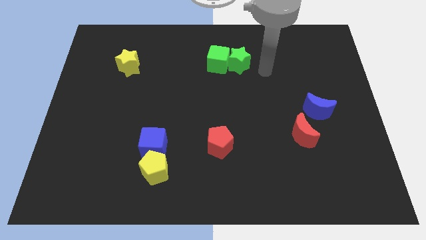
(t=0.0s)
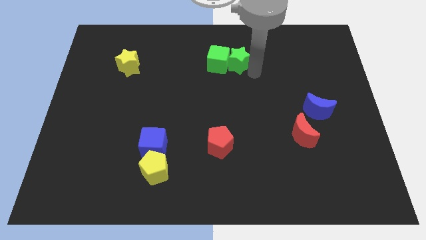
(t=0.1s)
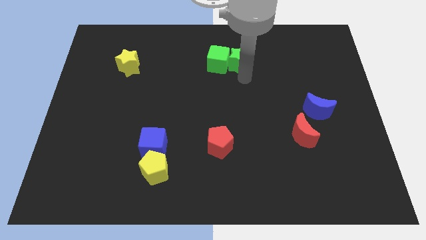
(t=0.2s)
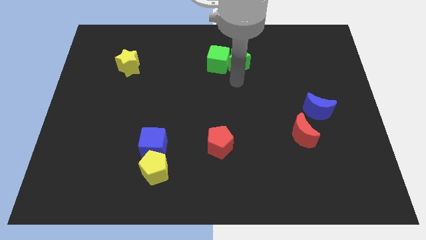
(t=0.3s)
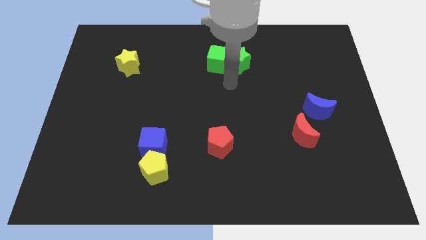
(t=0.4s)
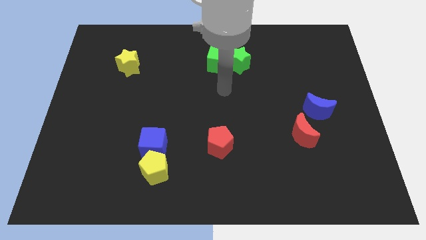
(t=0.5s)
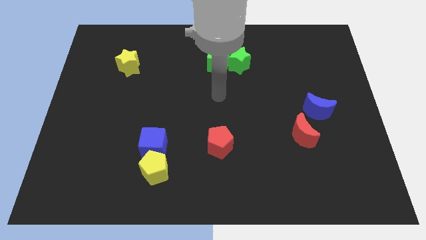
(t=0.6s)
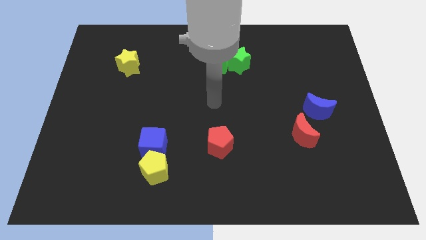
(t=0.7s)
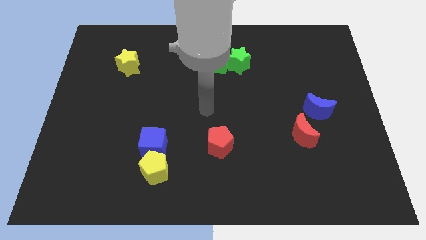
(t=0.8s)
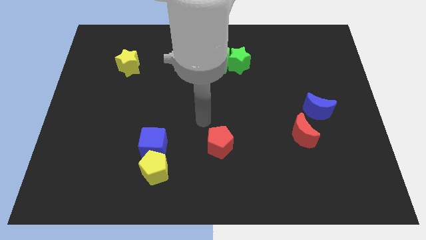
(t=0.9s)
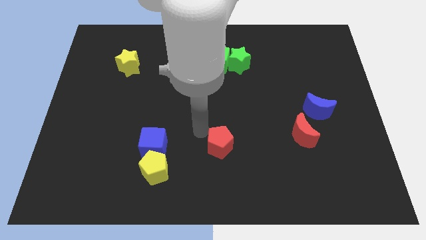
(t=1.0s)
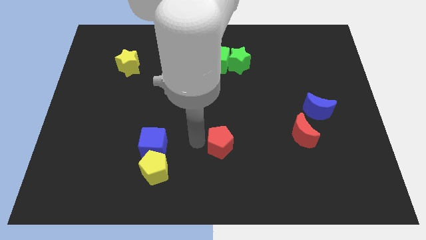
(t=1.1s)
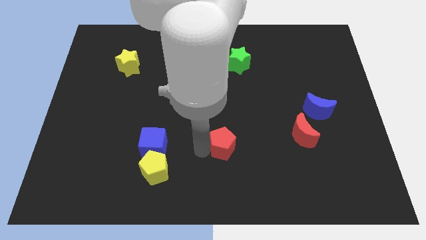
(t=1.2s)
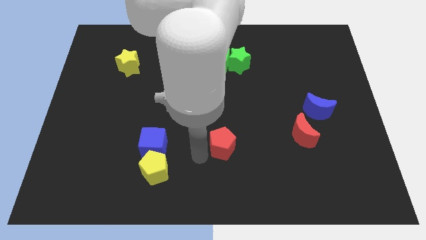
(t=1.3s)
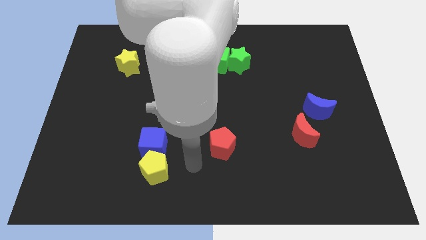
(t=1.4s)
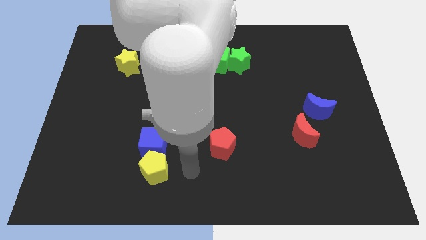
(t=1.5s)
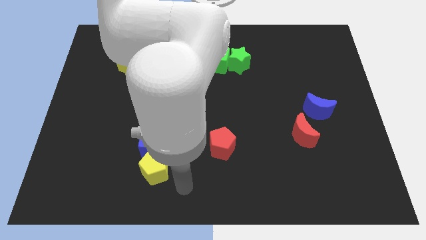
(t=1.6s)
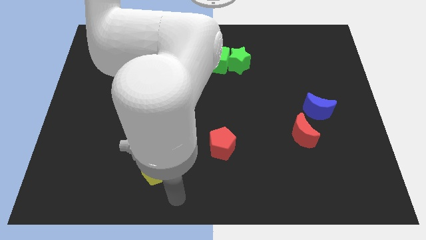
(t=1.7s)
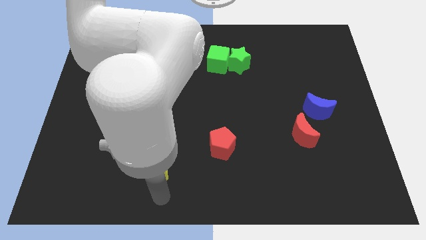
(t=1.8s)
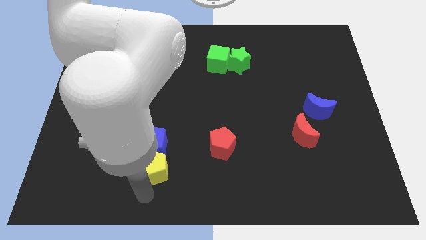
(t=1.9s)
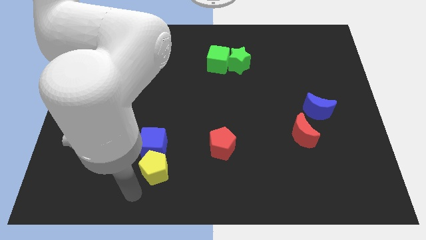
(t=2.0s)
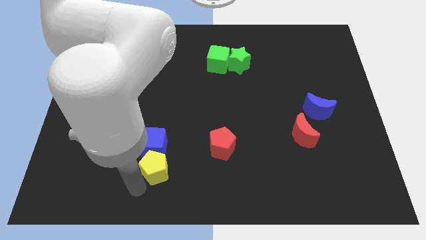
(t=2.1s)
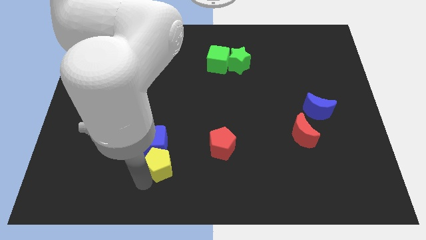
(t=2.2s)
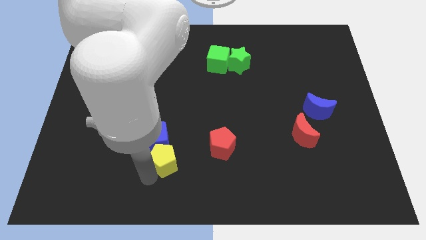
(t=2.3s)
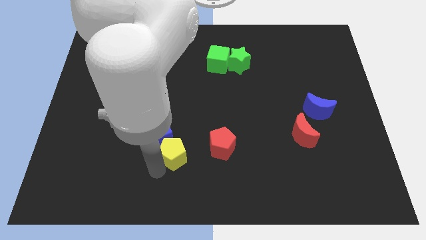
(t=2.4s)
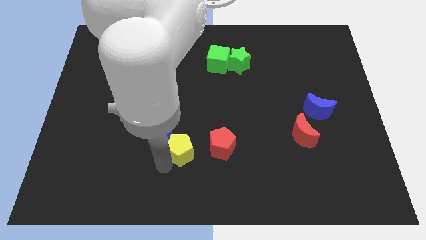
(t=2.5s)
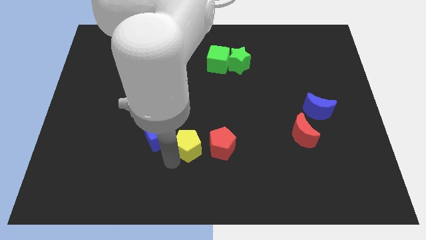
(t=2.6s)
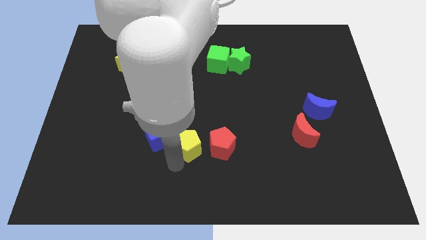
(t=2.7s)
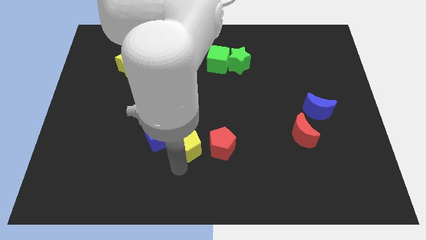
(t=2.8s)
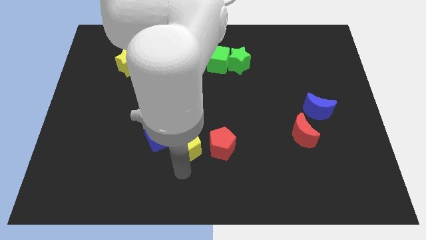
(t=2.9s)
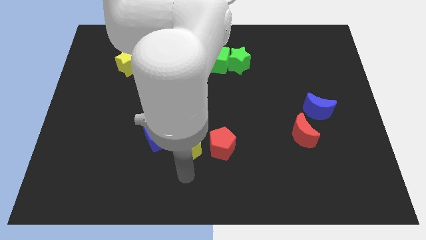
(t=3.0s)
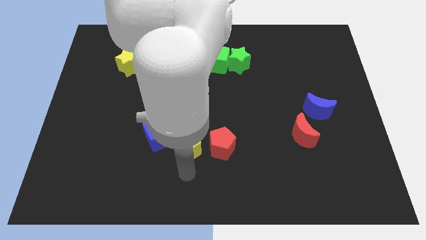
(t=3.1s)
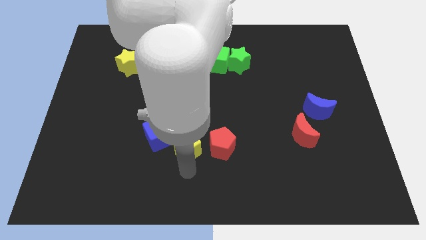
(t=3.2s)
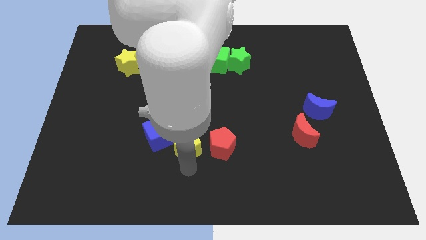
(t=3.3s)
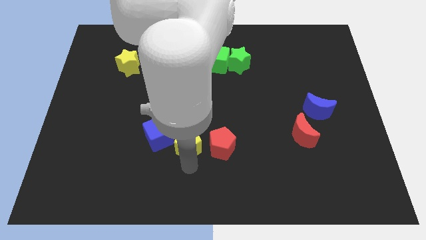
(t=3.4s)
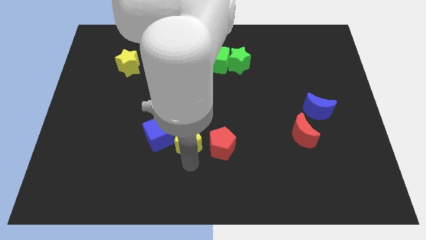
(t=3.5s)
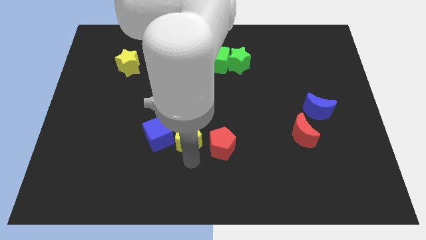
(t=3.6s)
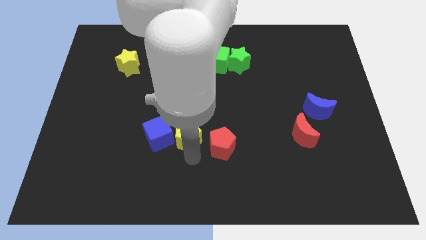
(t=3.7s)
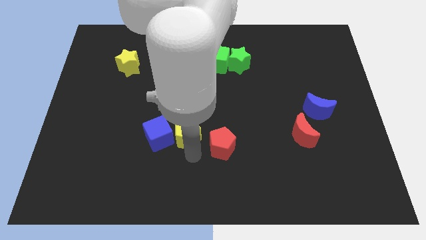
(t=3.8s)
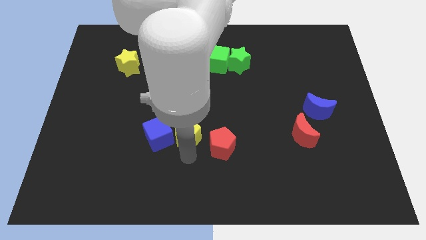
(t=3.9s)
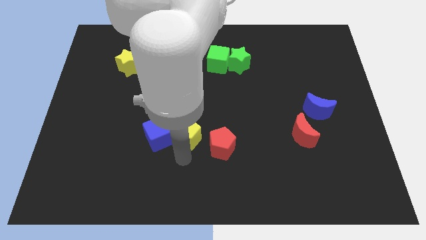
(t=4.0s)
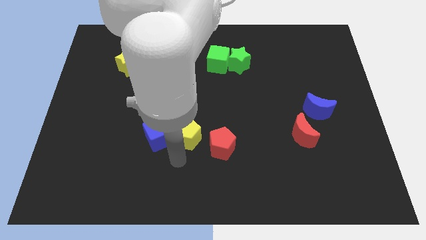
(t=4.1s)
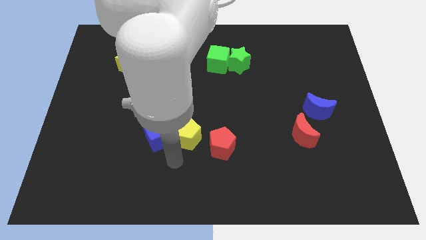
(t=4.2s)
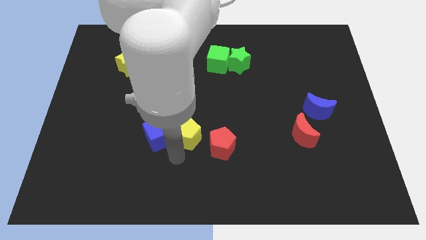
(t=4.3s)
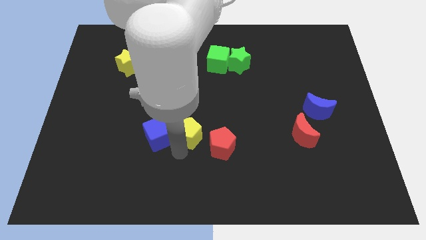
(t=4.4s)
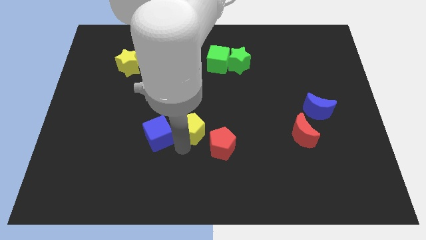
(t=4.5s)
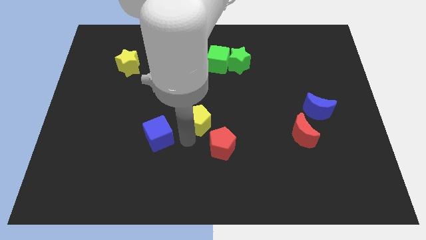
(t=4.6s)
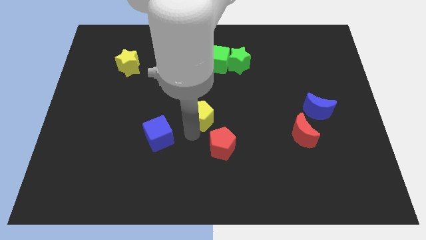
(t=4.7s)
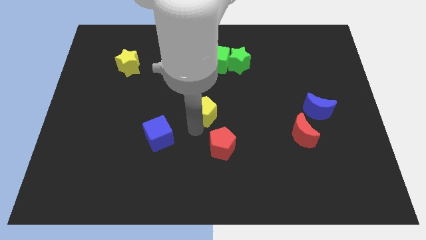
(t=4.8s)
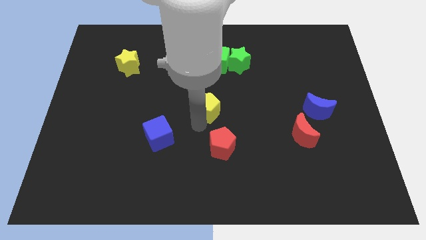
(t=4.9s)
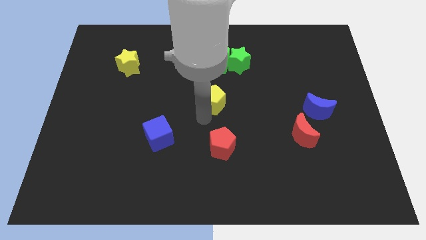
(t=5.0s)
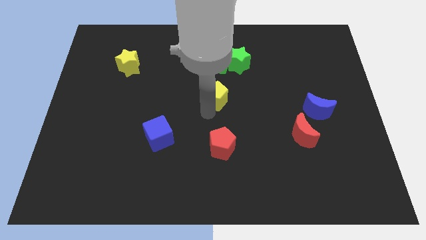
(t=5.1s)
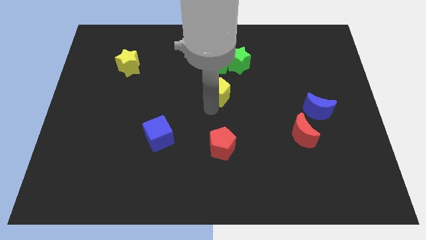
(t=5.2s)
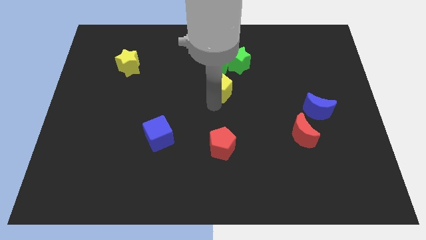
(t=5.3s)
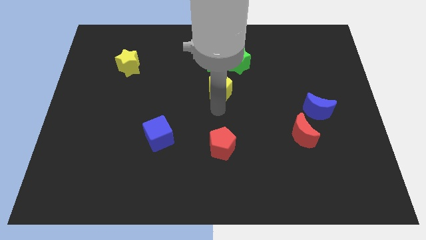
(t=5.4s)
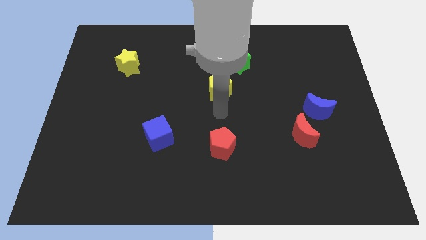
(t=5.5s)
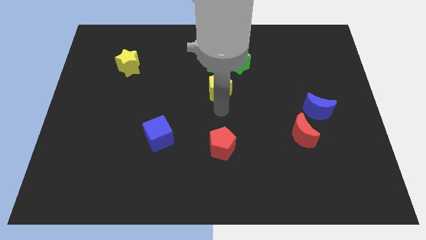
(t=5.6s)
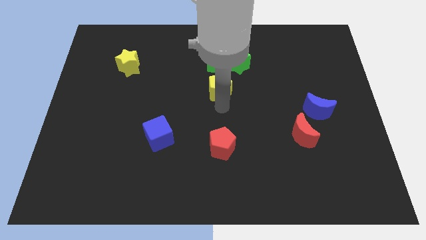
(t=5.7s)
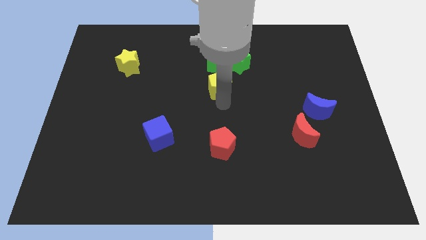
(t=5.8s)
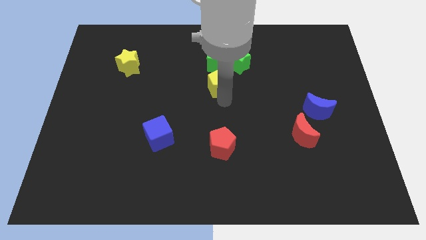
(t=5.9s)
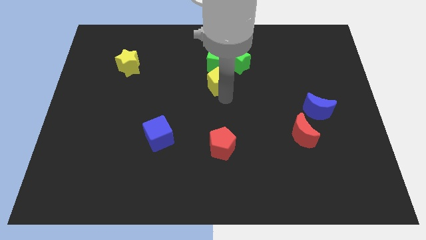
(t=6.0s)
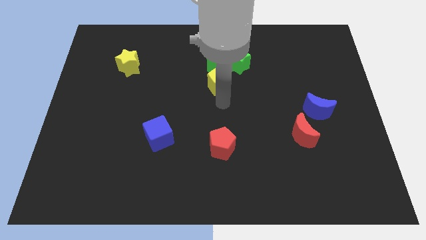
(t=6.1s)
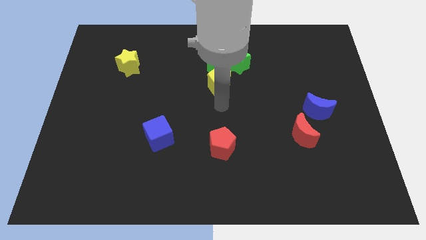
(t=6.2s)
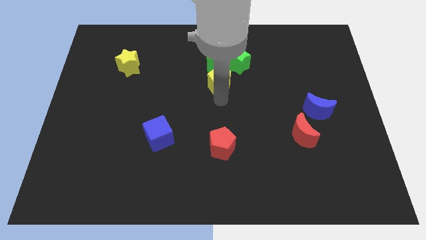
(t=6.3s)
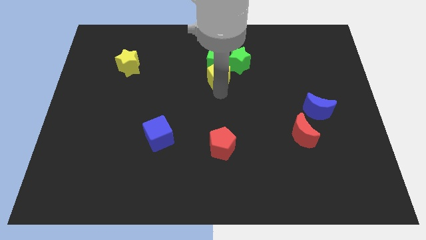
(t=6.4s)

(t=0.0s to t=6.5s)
slide the yellow pentagon towards the green cube

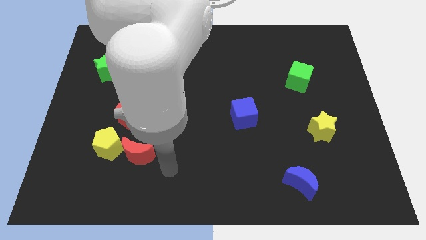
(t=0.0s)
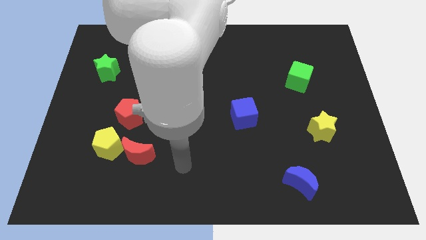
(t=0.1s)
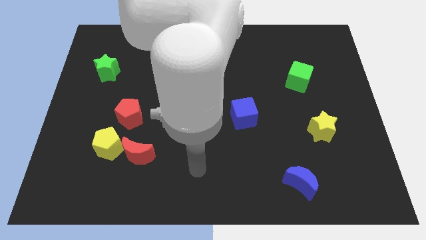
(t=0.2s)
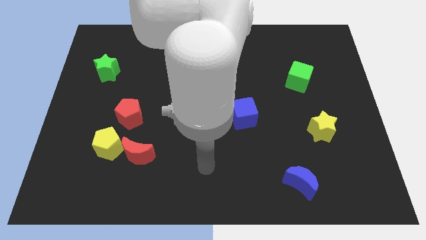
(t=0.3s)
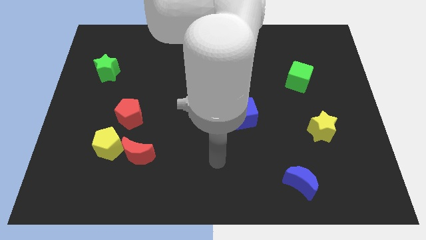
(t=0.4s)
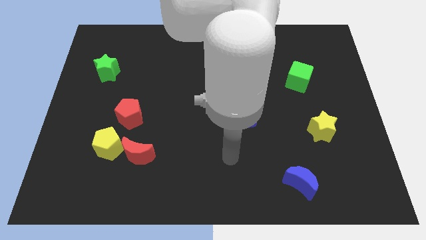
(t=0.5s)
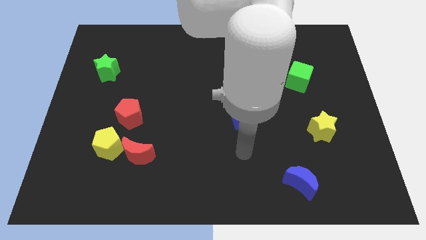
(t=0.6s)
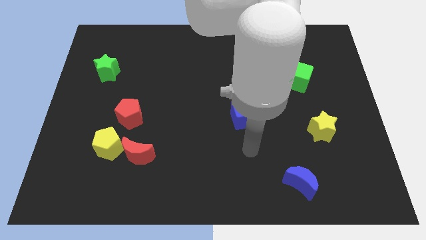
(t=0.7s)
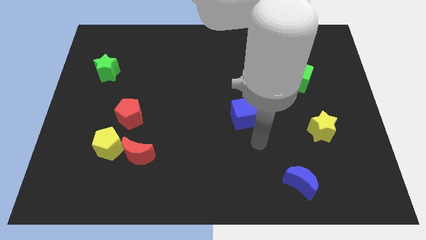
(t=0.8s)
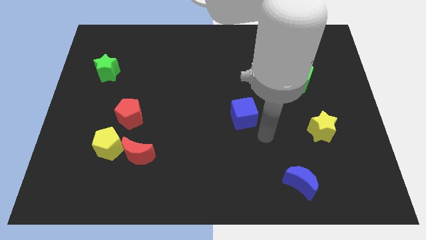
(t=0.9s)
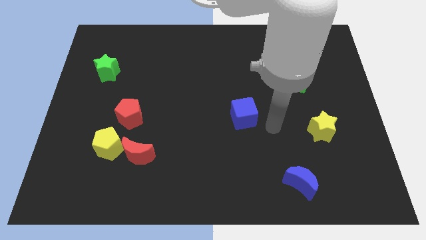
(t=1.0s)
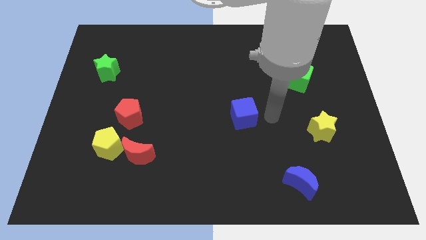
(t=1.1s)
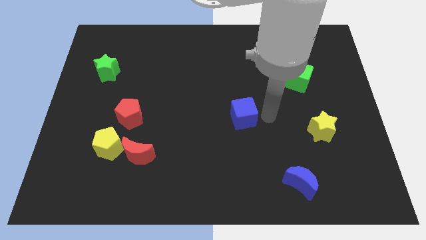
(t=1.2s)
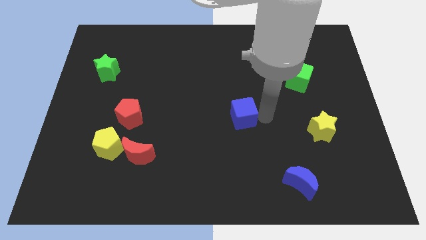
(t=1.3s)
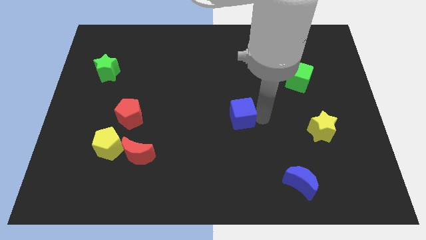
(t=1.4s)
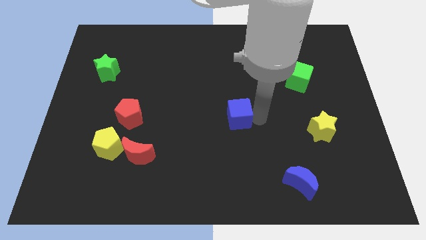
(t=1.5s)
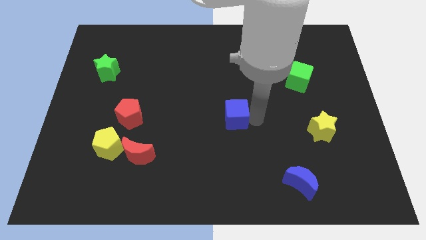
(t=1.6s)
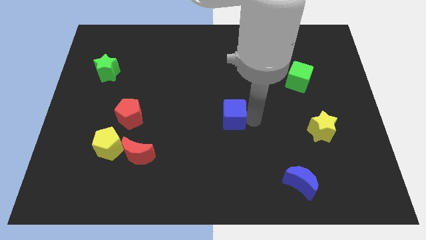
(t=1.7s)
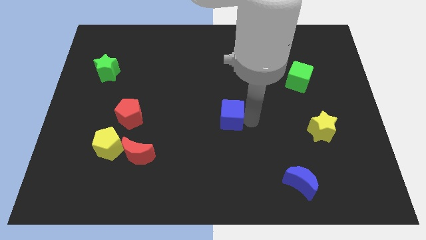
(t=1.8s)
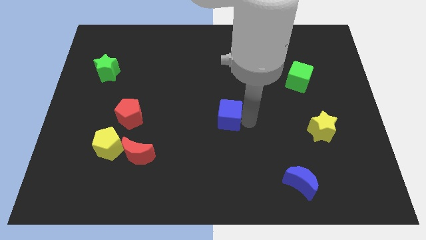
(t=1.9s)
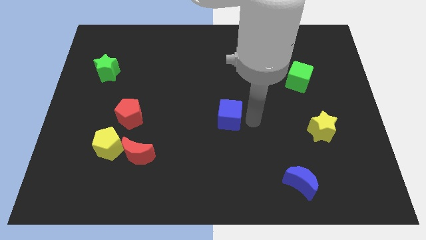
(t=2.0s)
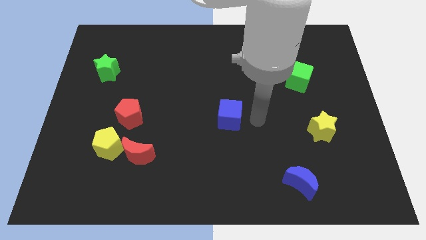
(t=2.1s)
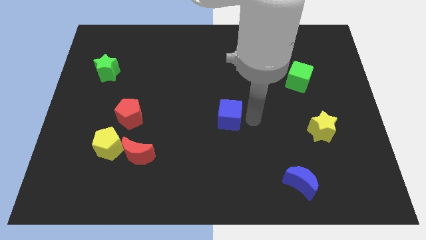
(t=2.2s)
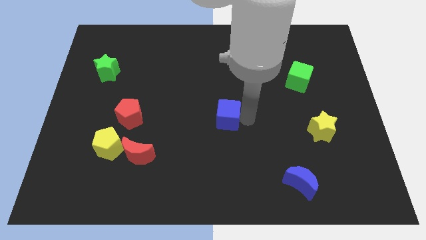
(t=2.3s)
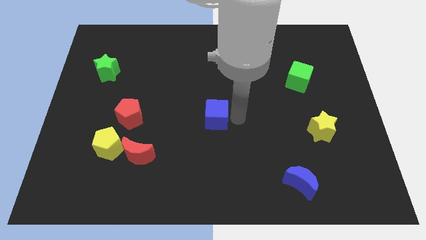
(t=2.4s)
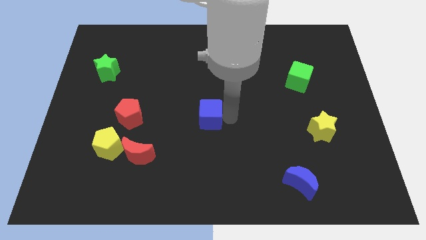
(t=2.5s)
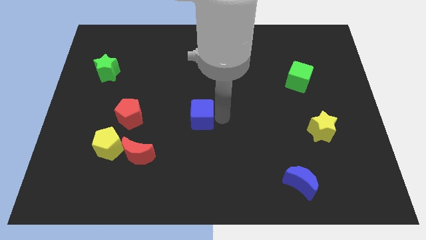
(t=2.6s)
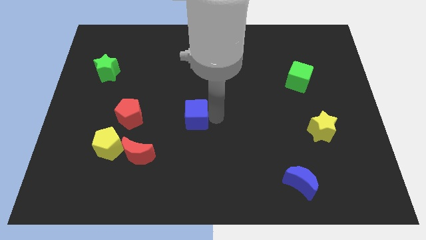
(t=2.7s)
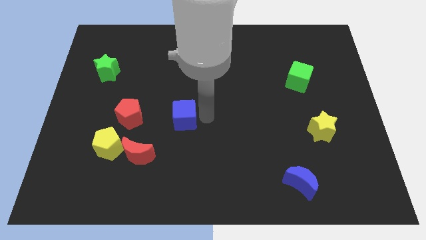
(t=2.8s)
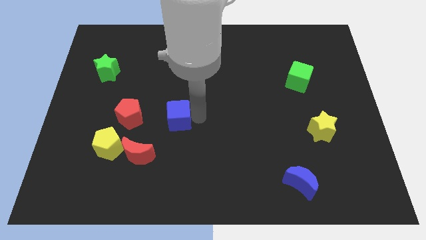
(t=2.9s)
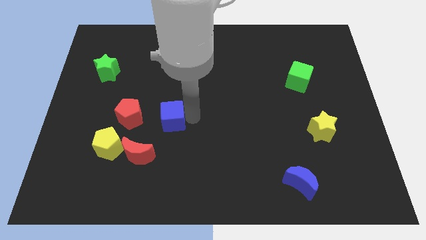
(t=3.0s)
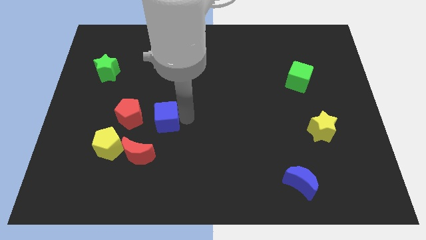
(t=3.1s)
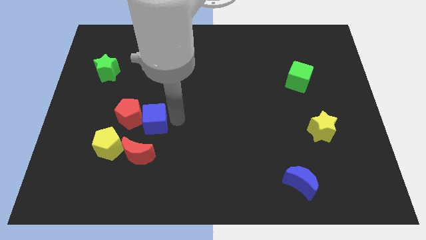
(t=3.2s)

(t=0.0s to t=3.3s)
put the blue cube close to the red pentagon
